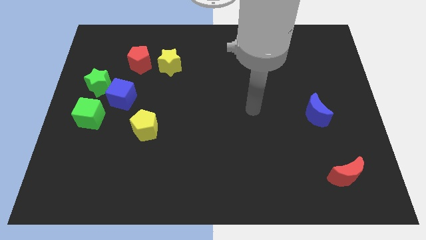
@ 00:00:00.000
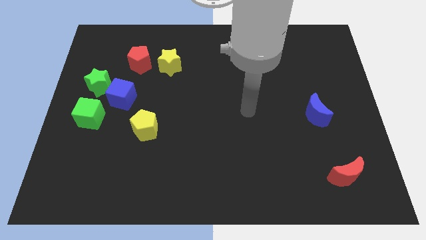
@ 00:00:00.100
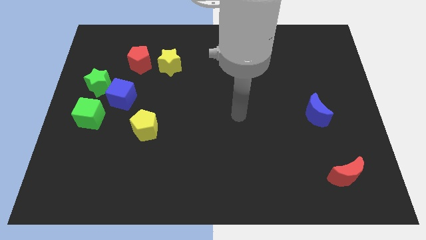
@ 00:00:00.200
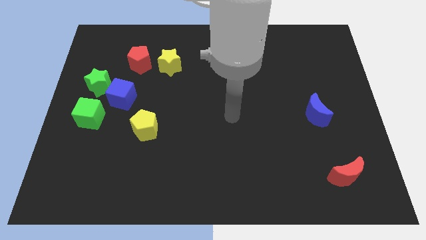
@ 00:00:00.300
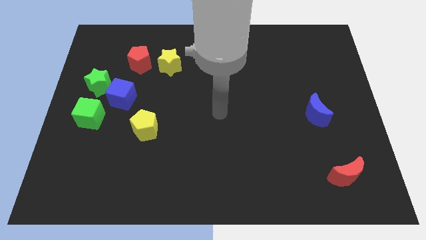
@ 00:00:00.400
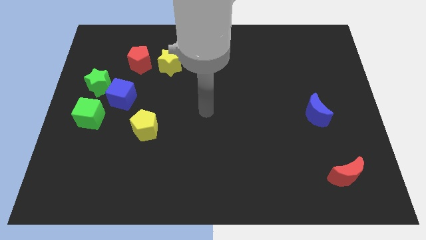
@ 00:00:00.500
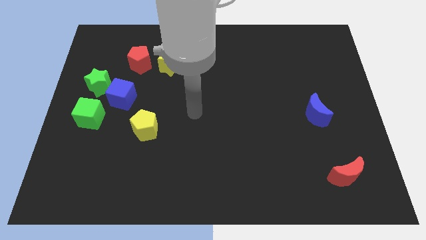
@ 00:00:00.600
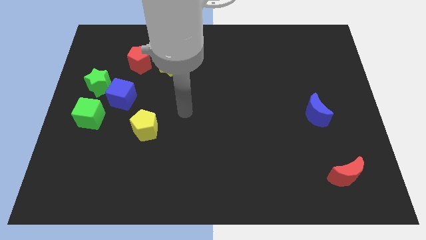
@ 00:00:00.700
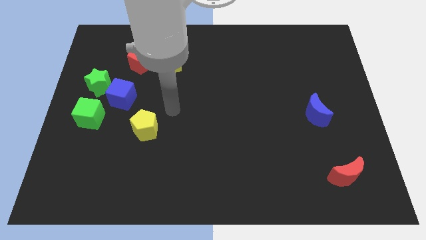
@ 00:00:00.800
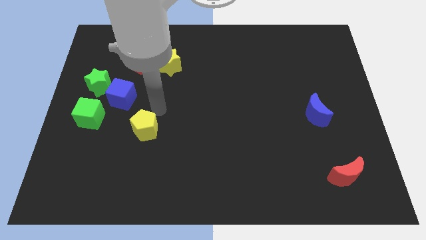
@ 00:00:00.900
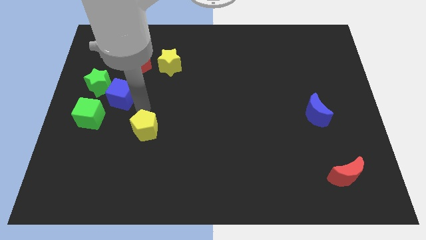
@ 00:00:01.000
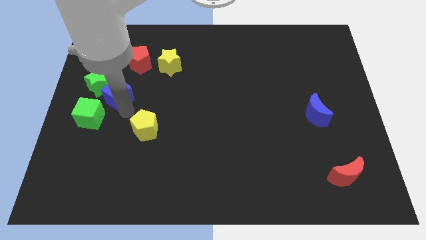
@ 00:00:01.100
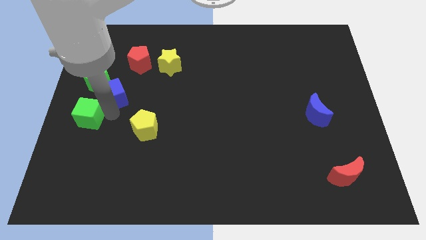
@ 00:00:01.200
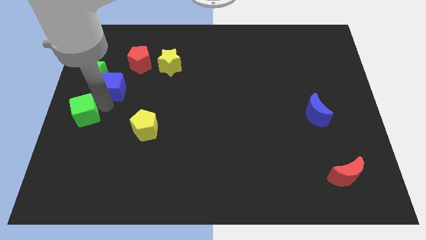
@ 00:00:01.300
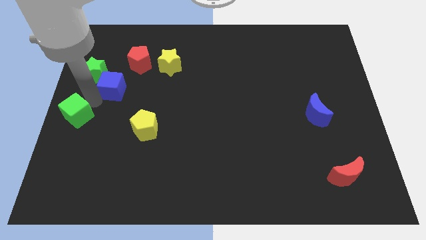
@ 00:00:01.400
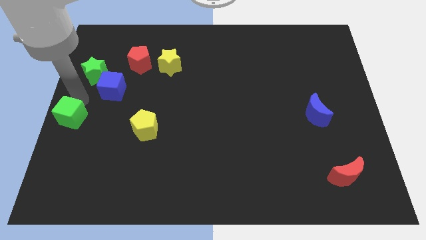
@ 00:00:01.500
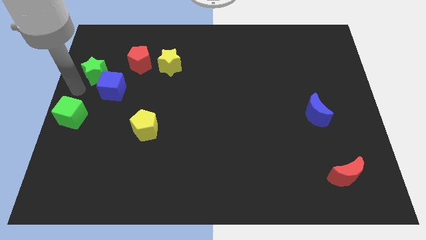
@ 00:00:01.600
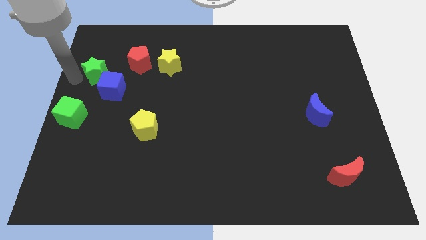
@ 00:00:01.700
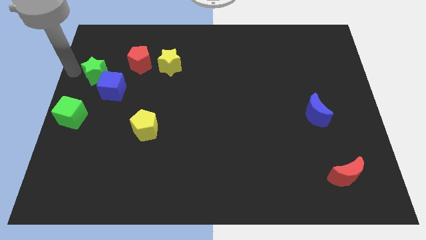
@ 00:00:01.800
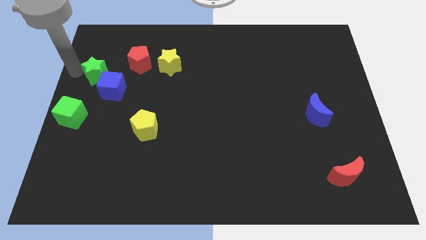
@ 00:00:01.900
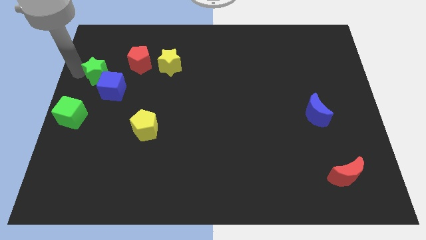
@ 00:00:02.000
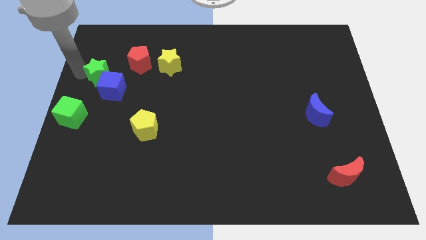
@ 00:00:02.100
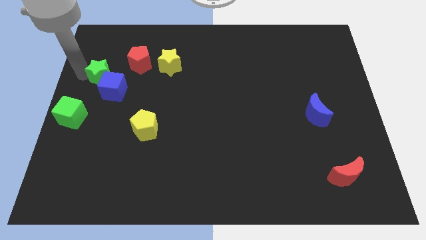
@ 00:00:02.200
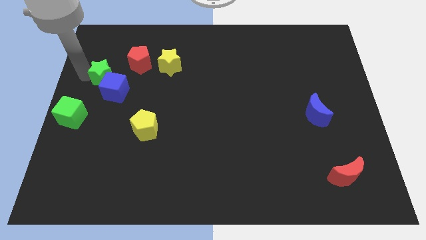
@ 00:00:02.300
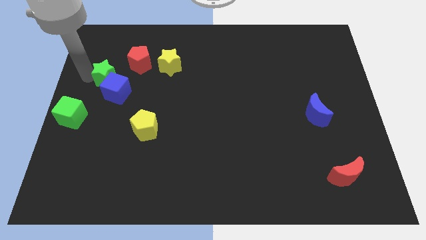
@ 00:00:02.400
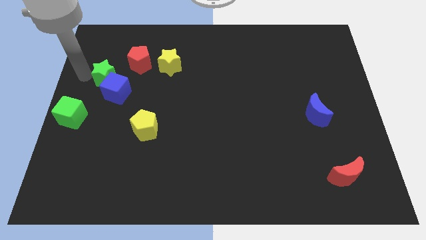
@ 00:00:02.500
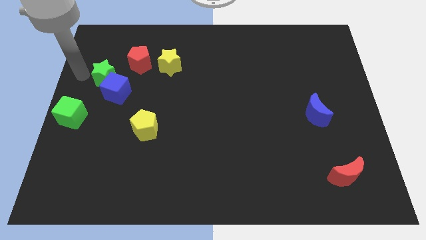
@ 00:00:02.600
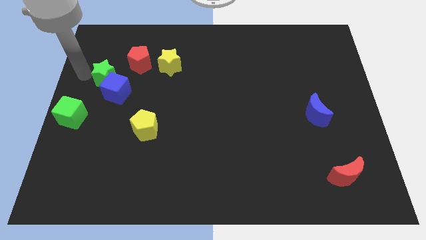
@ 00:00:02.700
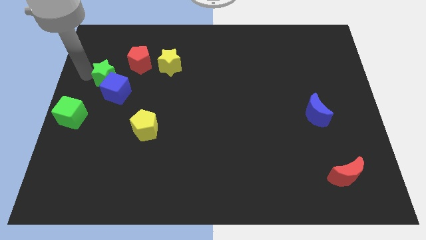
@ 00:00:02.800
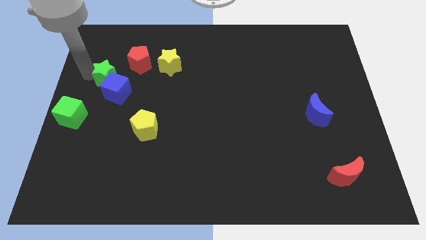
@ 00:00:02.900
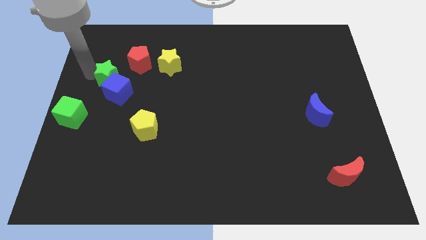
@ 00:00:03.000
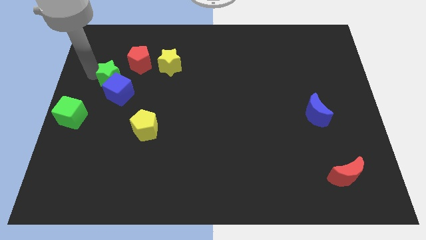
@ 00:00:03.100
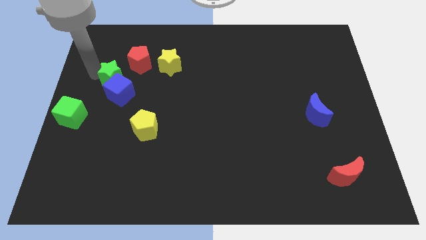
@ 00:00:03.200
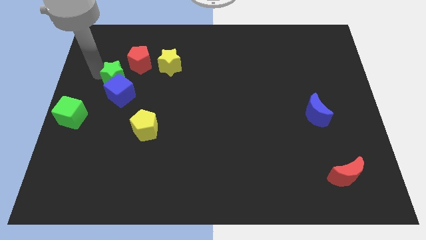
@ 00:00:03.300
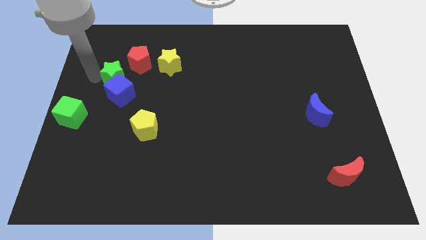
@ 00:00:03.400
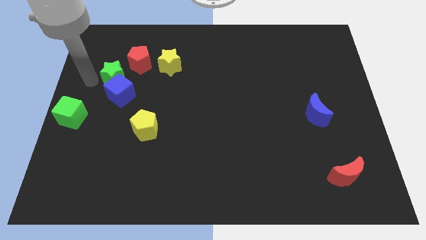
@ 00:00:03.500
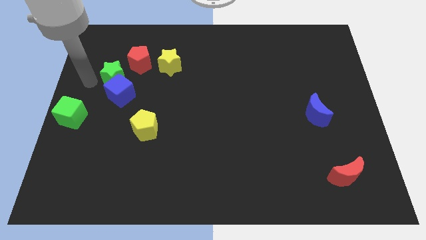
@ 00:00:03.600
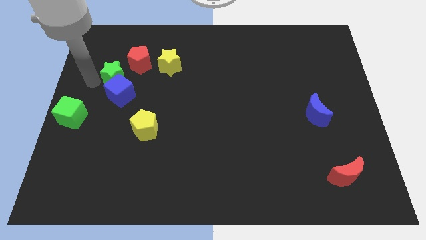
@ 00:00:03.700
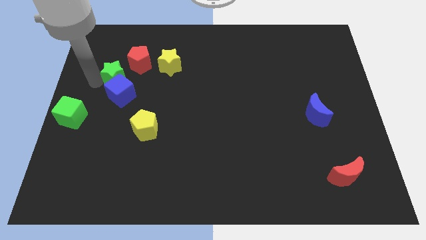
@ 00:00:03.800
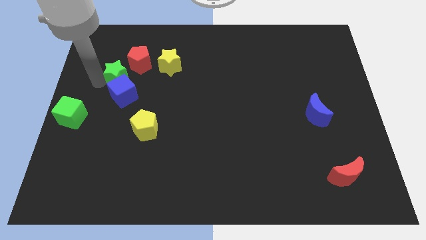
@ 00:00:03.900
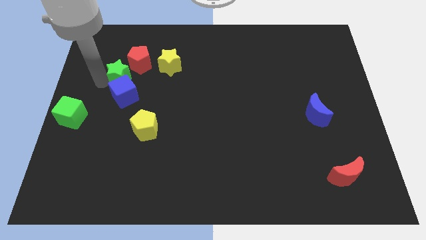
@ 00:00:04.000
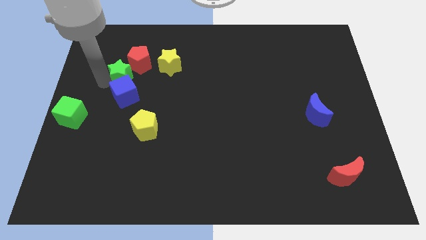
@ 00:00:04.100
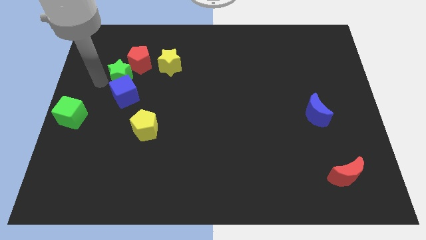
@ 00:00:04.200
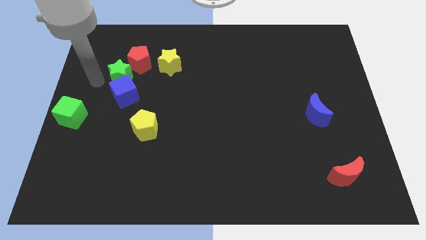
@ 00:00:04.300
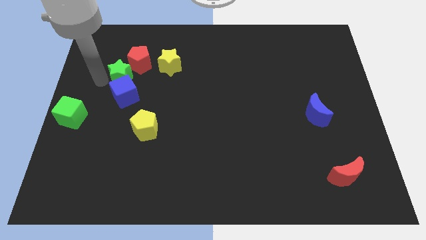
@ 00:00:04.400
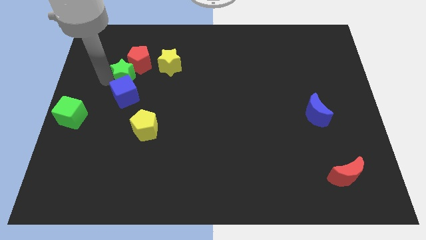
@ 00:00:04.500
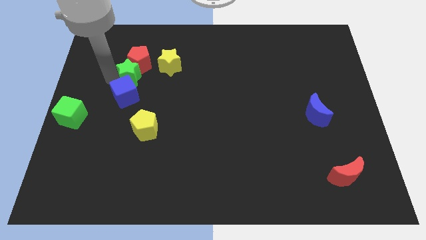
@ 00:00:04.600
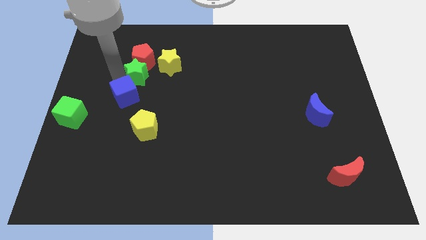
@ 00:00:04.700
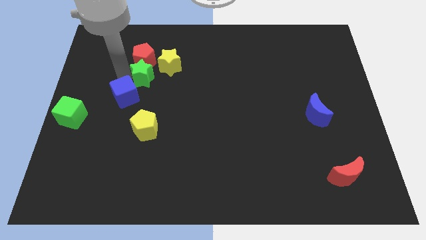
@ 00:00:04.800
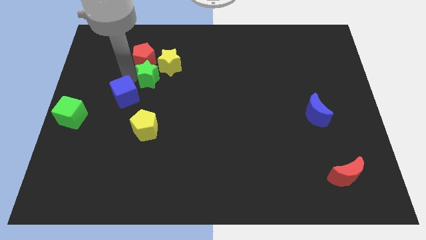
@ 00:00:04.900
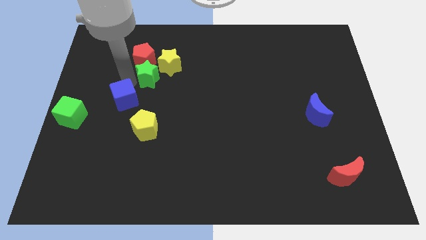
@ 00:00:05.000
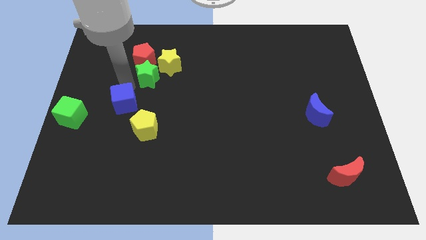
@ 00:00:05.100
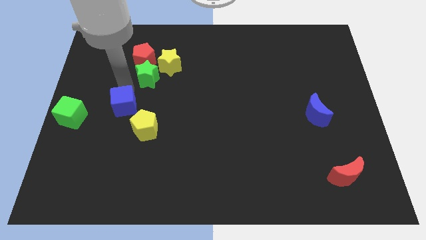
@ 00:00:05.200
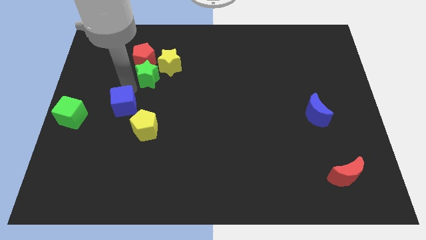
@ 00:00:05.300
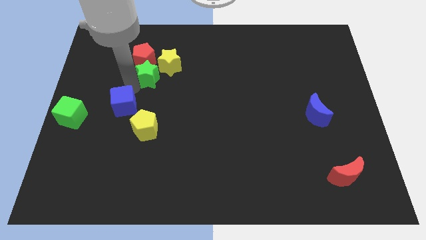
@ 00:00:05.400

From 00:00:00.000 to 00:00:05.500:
slide the green star close to the yellow star

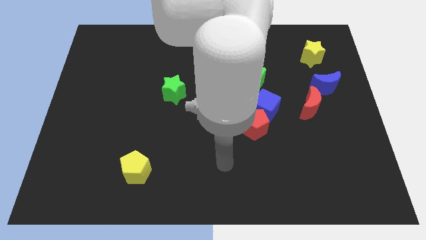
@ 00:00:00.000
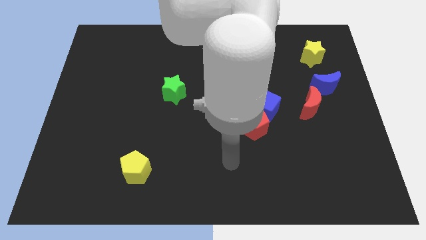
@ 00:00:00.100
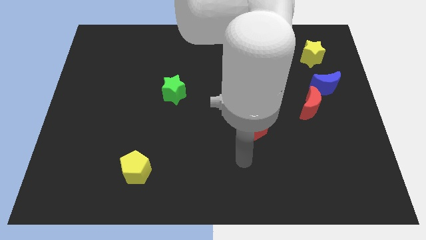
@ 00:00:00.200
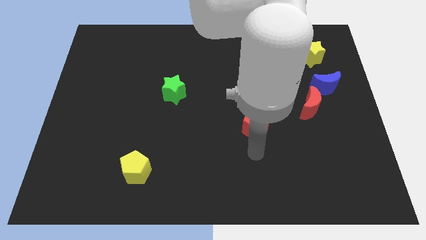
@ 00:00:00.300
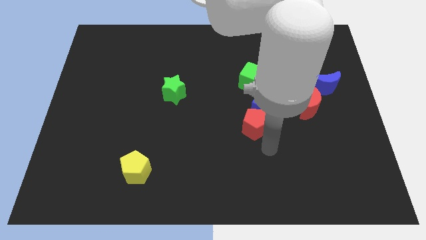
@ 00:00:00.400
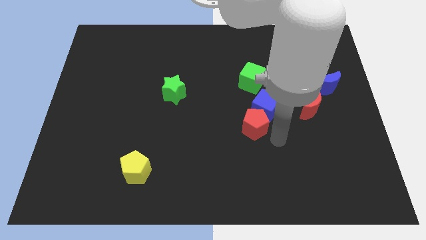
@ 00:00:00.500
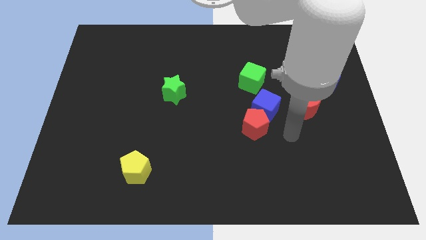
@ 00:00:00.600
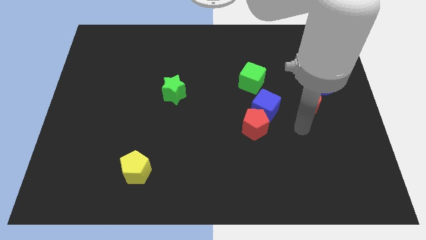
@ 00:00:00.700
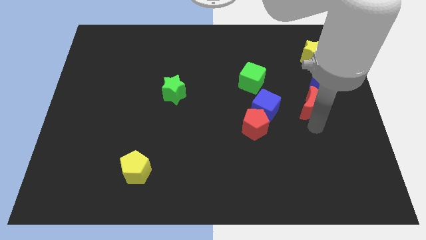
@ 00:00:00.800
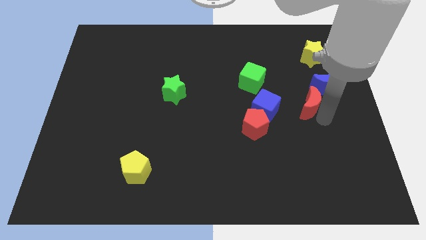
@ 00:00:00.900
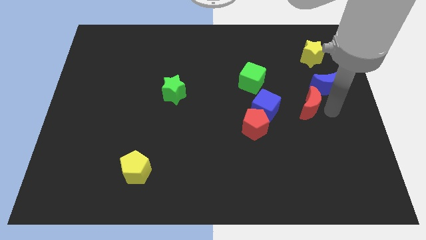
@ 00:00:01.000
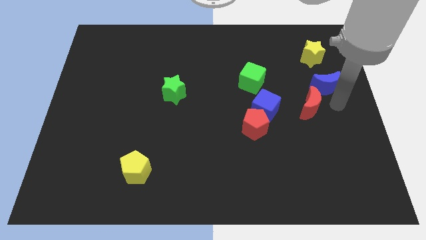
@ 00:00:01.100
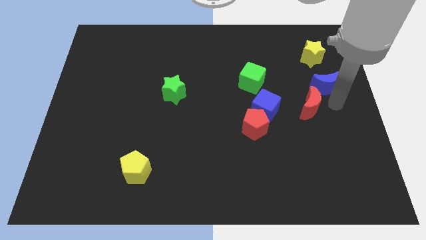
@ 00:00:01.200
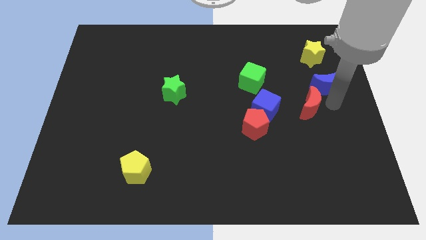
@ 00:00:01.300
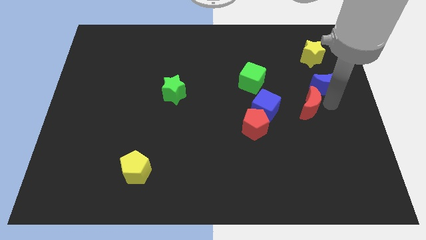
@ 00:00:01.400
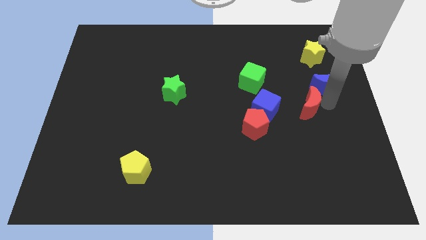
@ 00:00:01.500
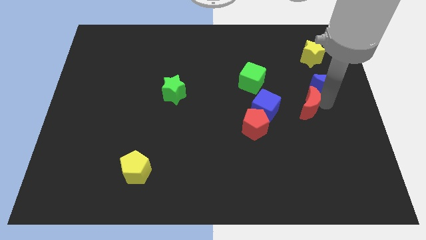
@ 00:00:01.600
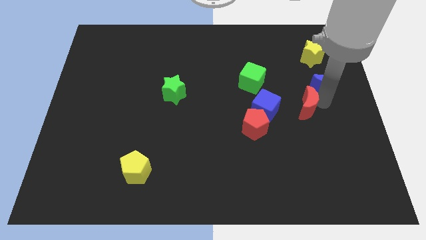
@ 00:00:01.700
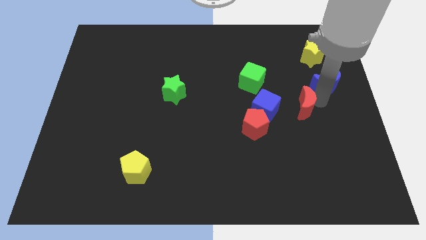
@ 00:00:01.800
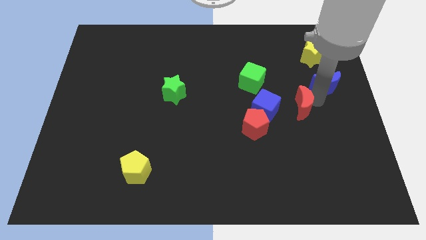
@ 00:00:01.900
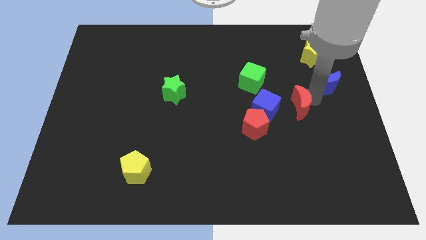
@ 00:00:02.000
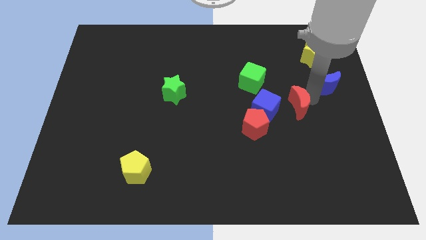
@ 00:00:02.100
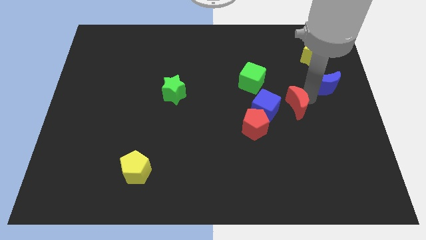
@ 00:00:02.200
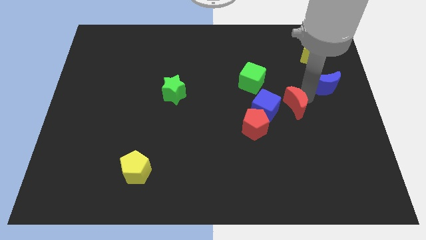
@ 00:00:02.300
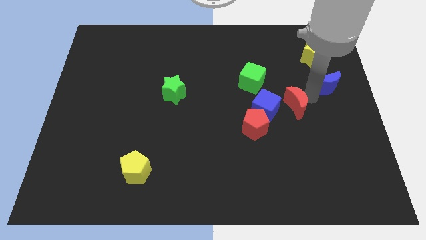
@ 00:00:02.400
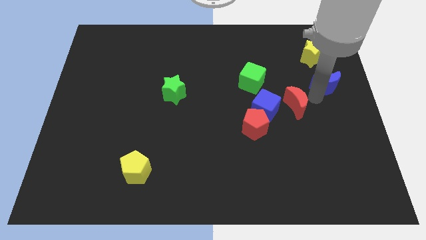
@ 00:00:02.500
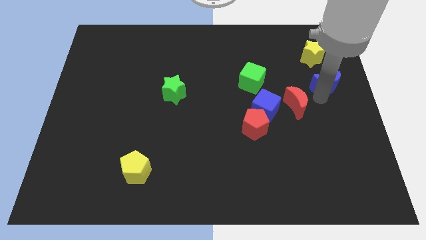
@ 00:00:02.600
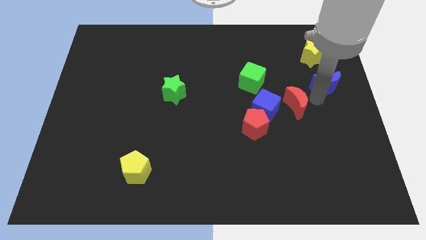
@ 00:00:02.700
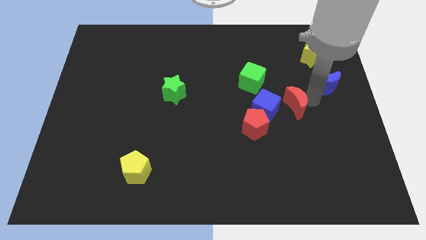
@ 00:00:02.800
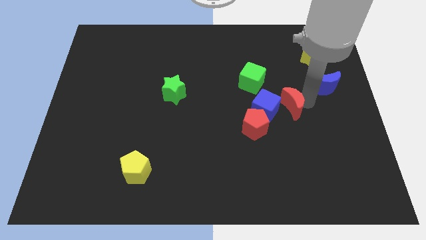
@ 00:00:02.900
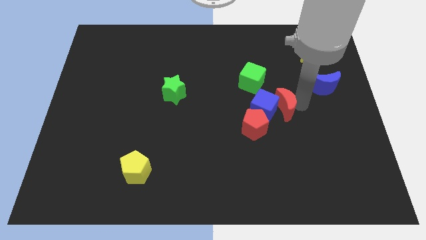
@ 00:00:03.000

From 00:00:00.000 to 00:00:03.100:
push the red moon towards the blue cube
